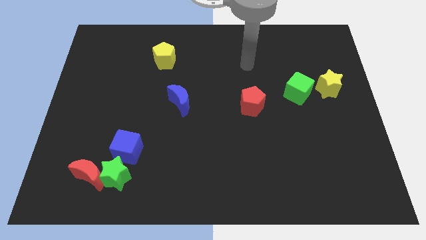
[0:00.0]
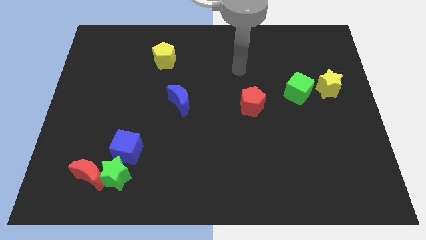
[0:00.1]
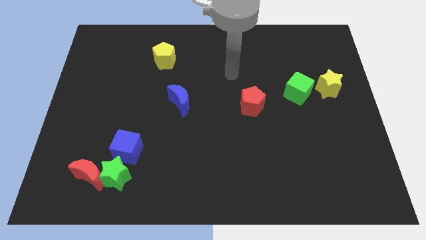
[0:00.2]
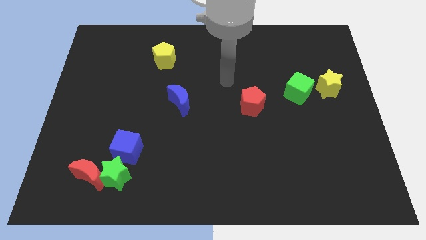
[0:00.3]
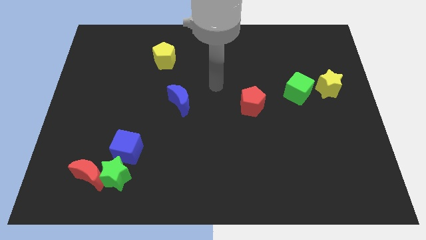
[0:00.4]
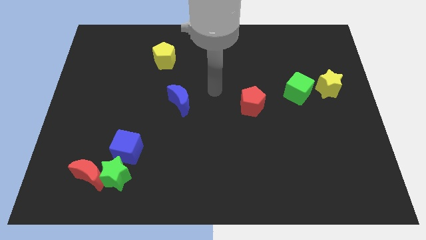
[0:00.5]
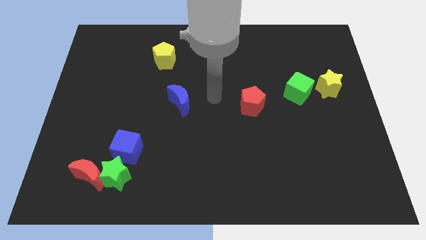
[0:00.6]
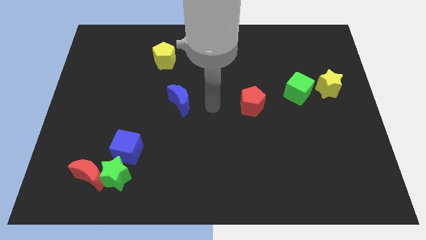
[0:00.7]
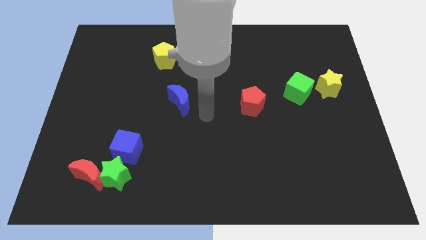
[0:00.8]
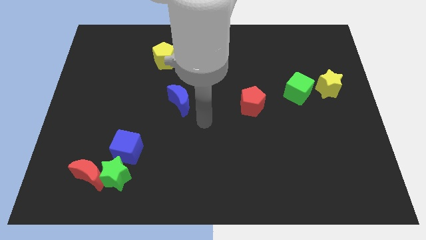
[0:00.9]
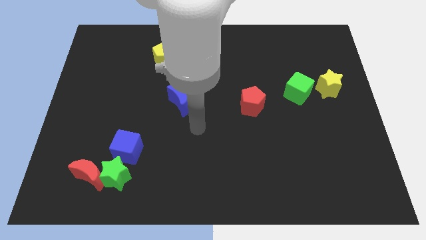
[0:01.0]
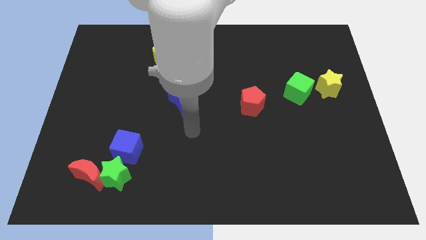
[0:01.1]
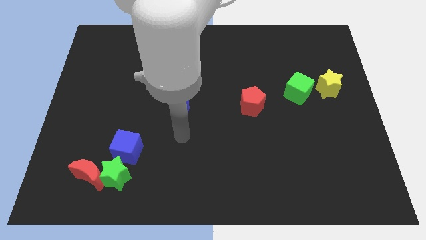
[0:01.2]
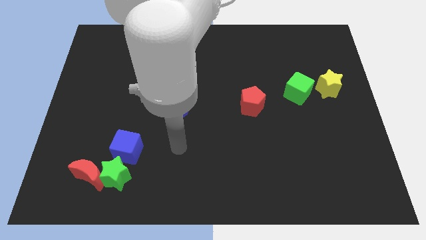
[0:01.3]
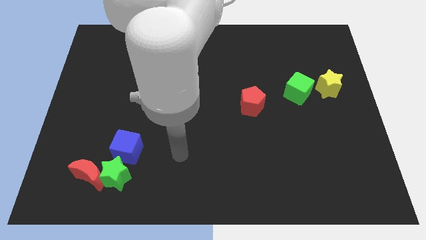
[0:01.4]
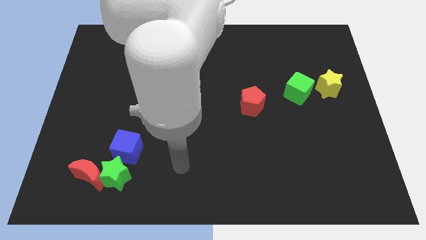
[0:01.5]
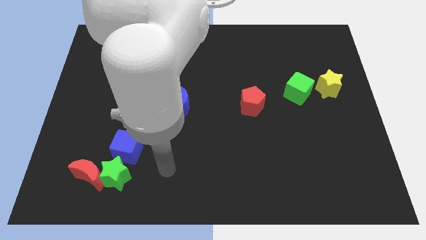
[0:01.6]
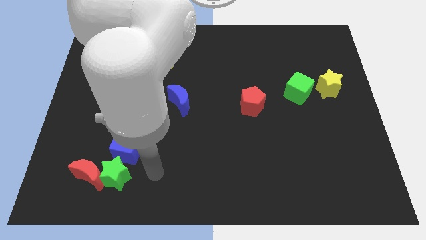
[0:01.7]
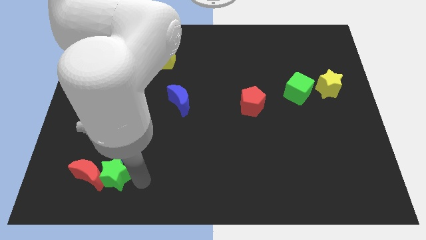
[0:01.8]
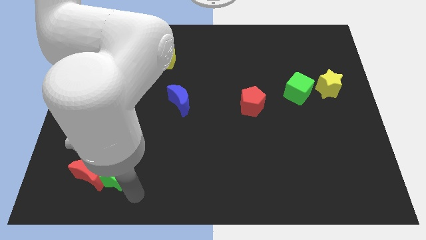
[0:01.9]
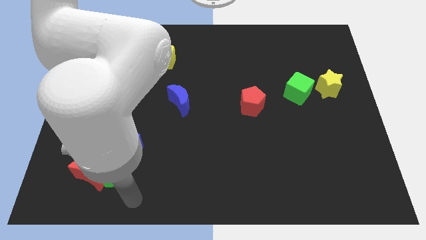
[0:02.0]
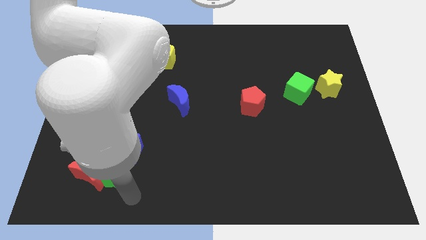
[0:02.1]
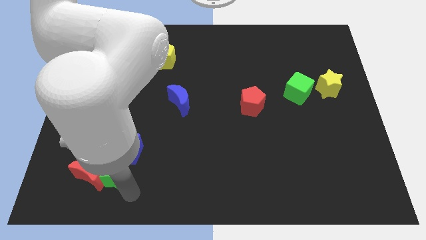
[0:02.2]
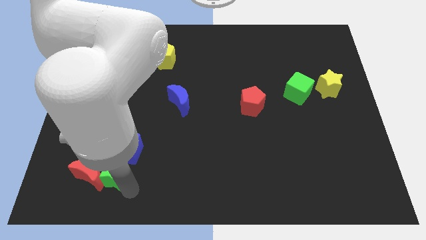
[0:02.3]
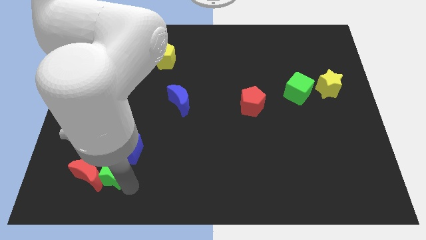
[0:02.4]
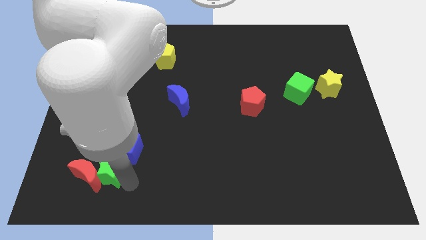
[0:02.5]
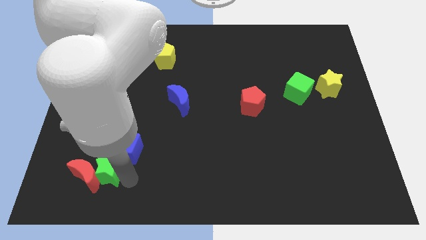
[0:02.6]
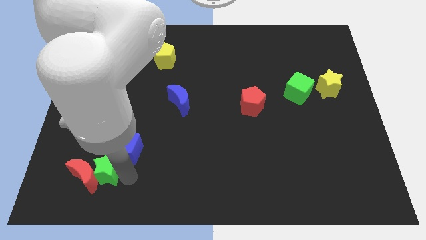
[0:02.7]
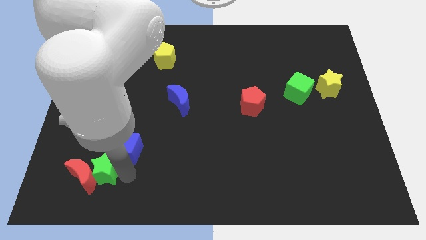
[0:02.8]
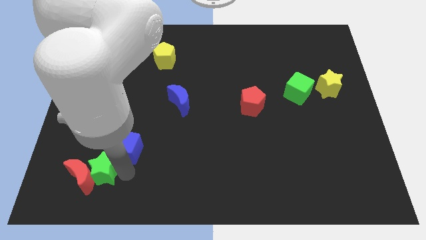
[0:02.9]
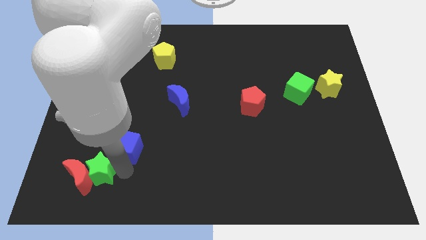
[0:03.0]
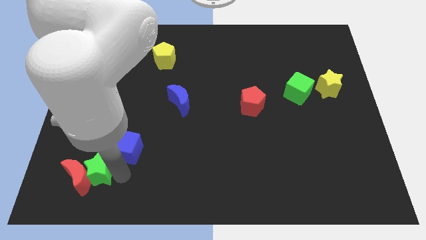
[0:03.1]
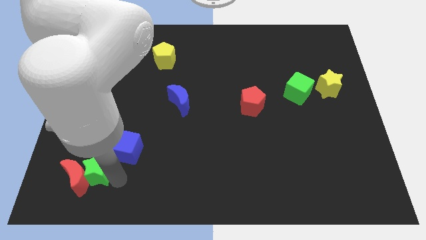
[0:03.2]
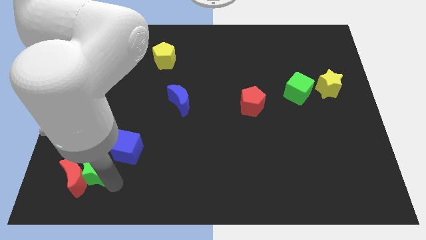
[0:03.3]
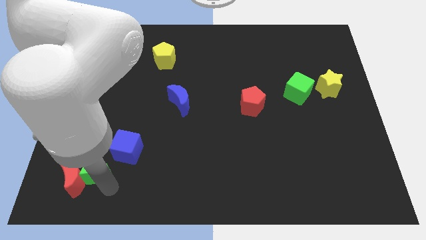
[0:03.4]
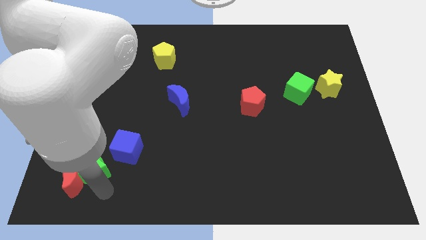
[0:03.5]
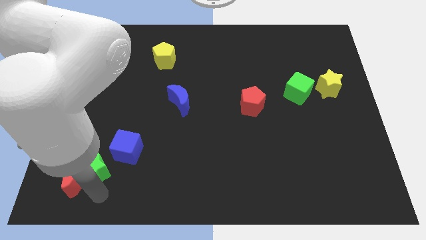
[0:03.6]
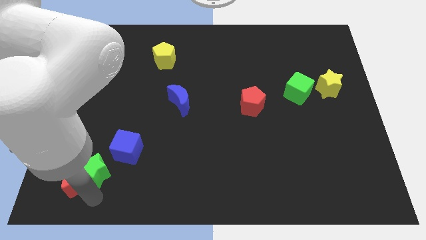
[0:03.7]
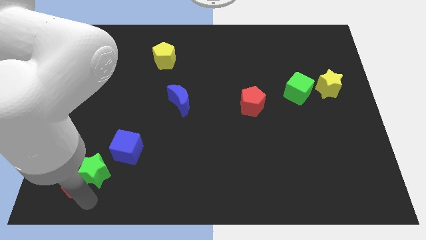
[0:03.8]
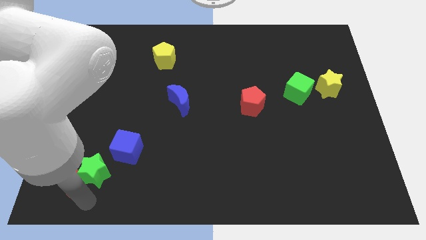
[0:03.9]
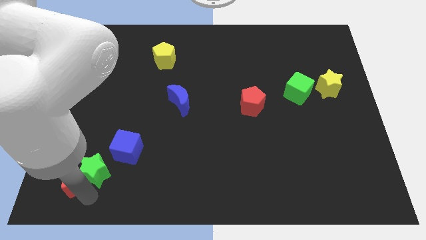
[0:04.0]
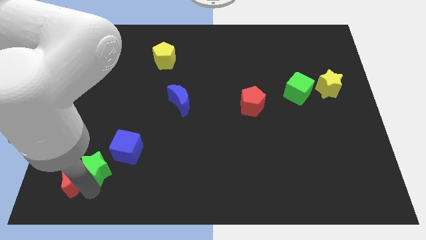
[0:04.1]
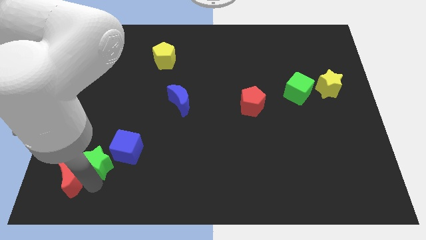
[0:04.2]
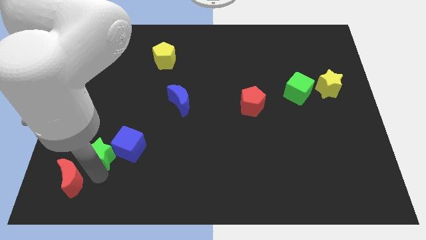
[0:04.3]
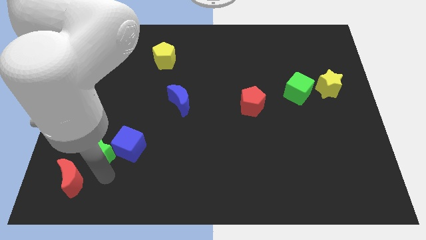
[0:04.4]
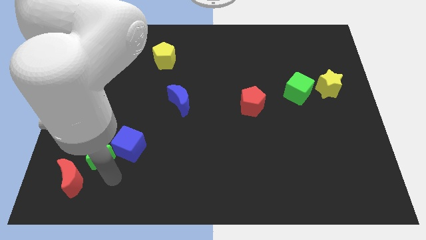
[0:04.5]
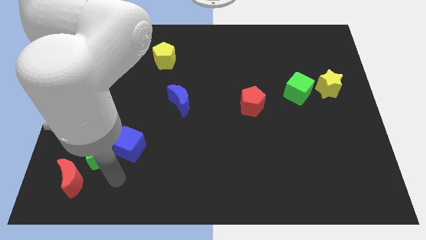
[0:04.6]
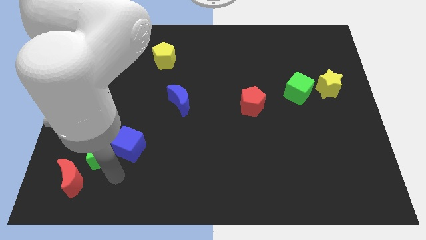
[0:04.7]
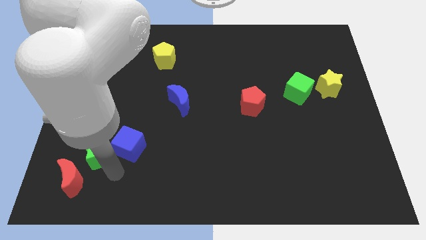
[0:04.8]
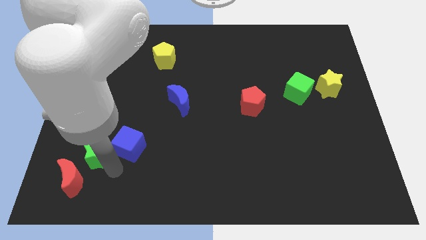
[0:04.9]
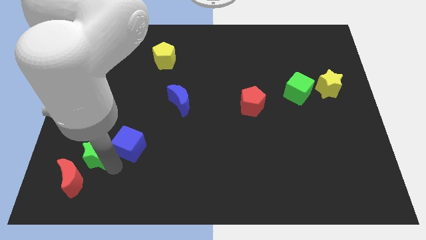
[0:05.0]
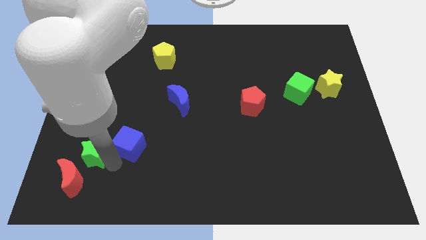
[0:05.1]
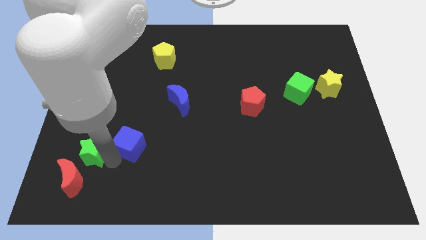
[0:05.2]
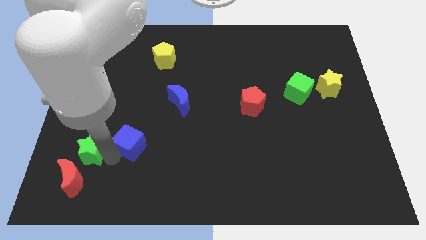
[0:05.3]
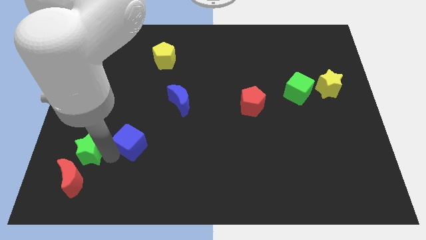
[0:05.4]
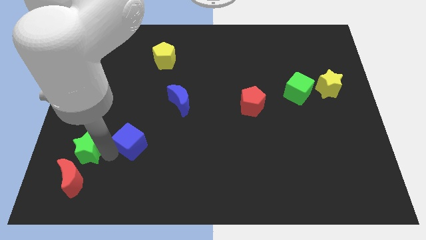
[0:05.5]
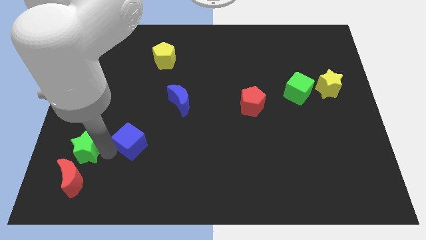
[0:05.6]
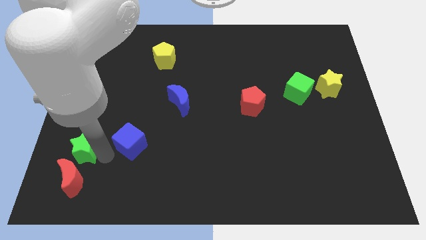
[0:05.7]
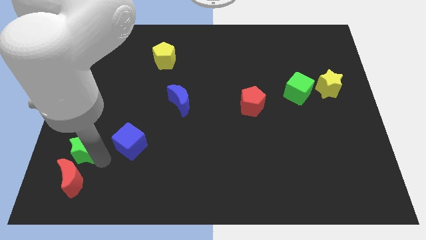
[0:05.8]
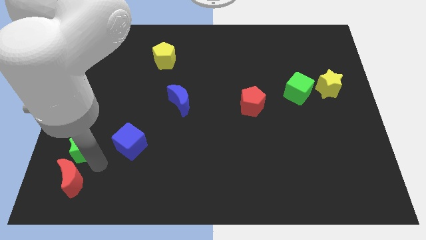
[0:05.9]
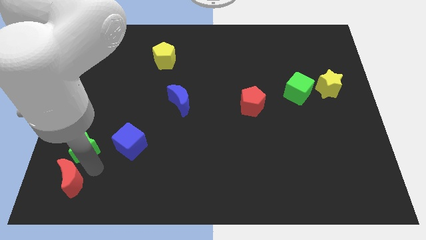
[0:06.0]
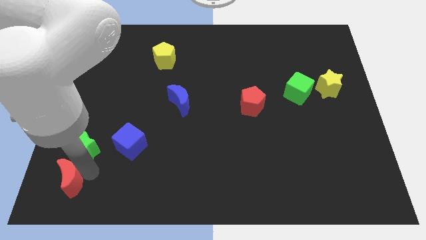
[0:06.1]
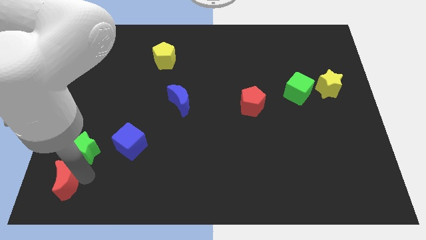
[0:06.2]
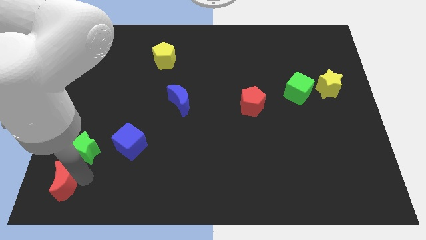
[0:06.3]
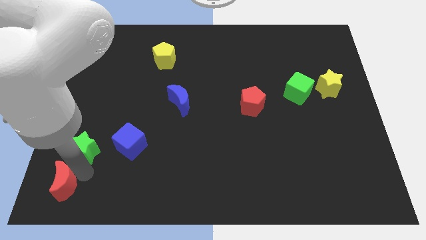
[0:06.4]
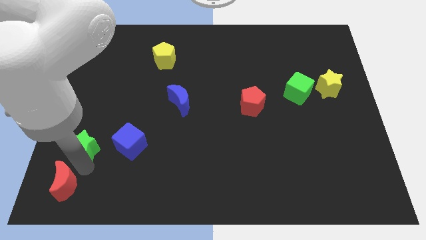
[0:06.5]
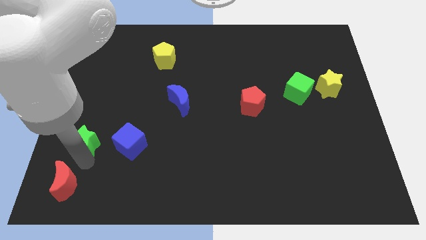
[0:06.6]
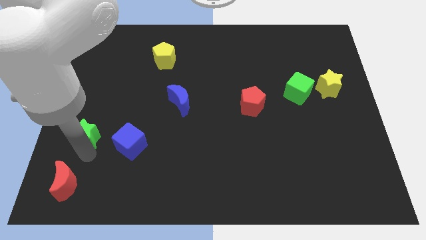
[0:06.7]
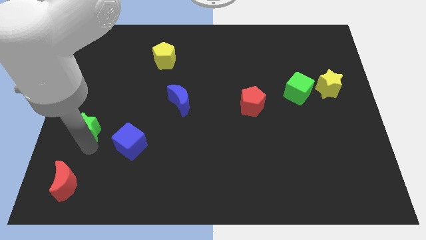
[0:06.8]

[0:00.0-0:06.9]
push the green star to the center left
